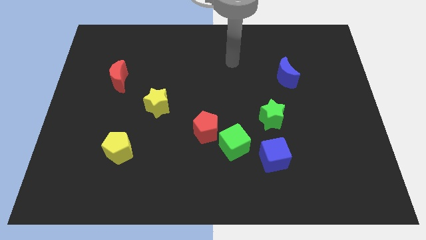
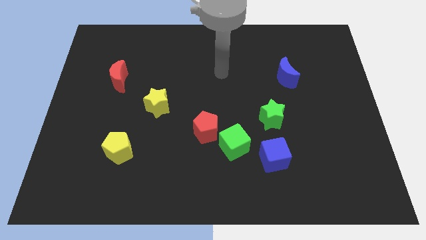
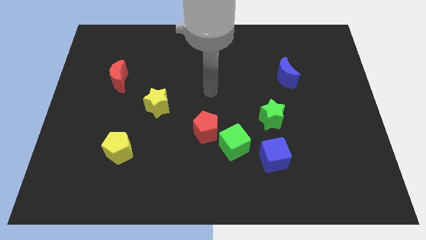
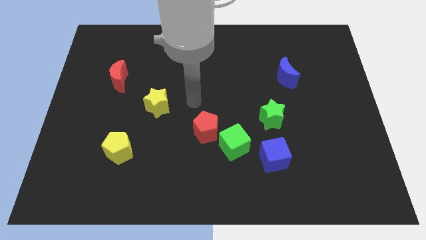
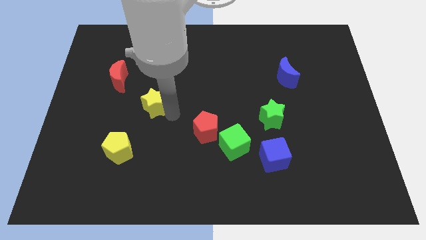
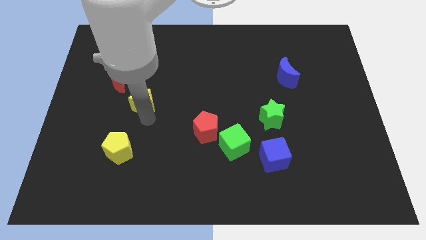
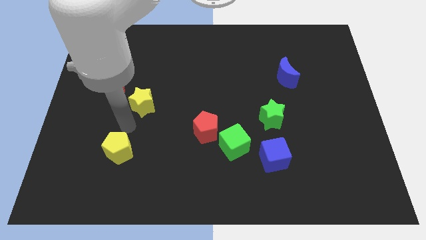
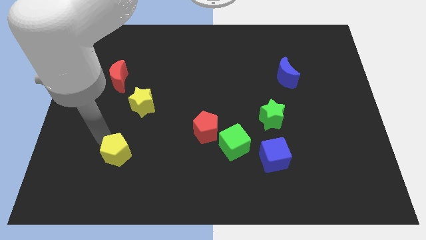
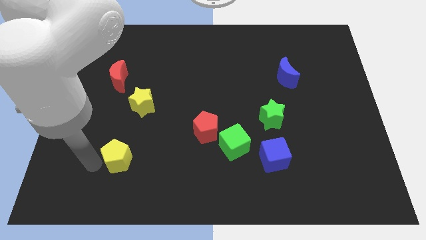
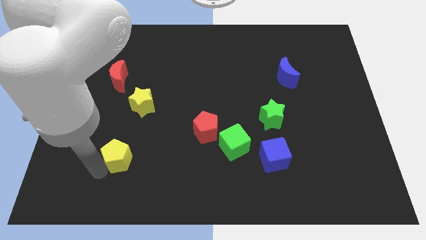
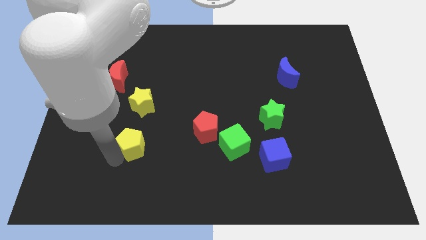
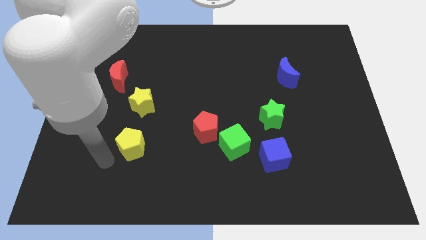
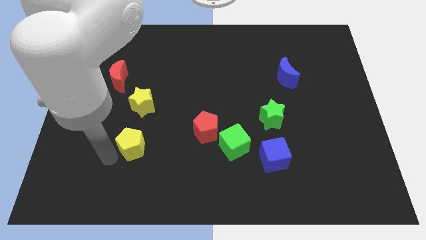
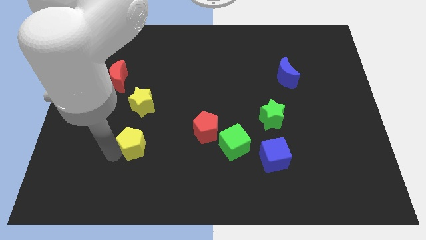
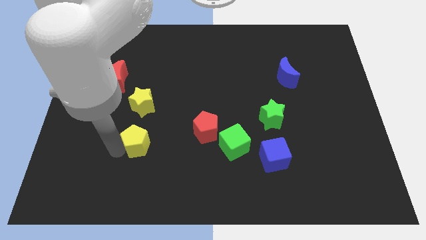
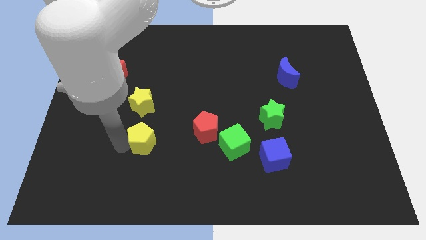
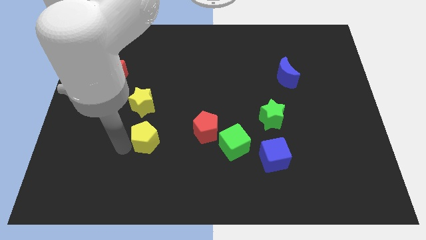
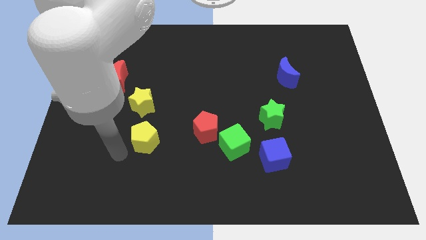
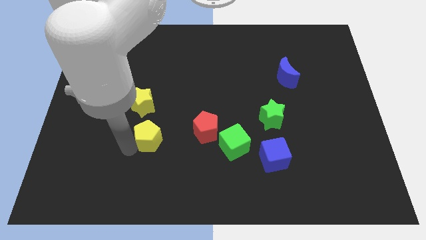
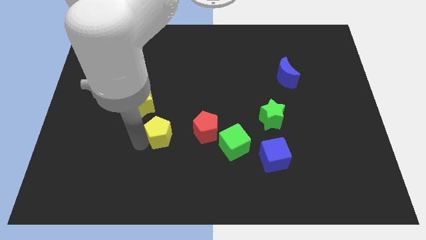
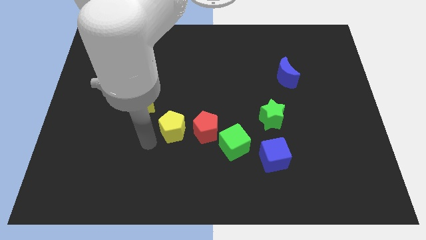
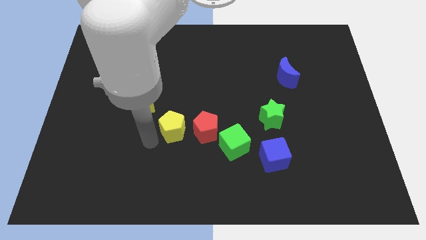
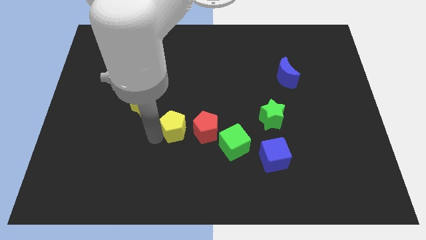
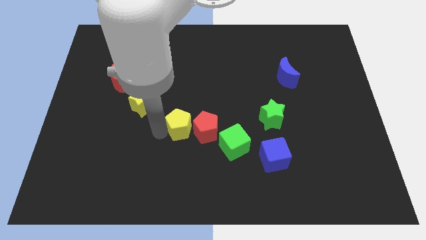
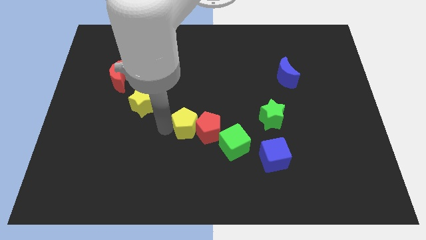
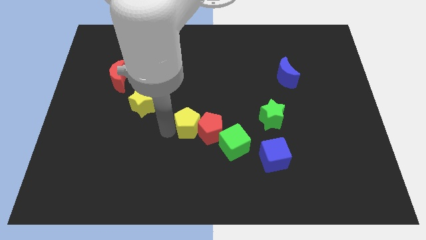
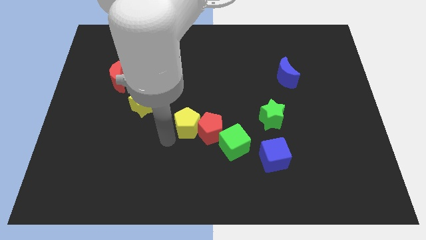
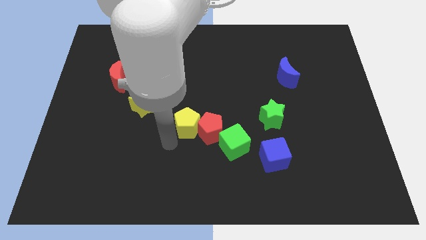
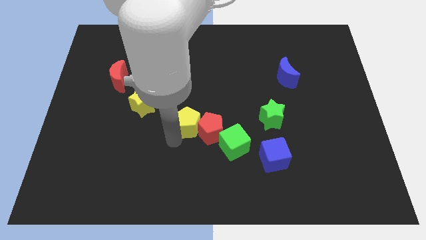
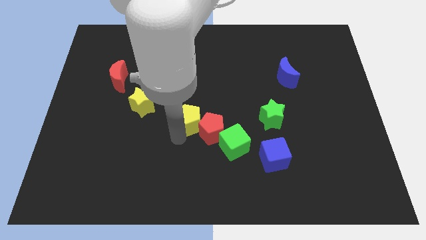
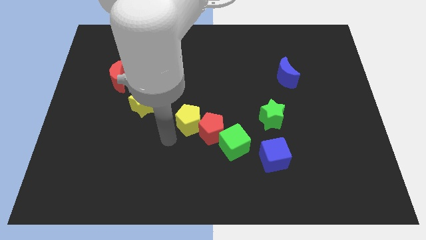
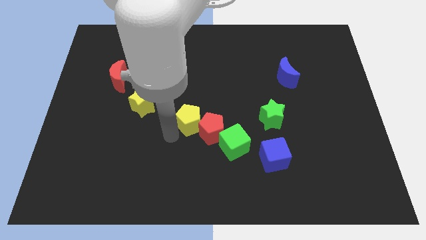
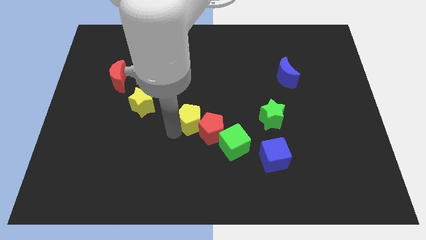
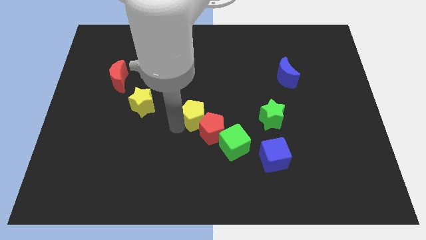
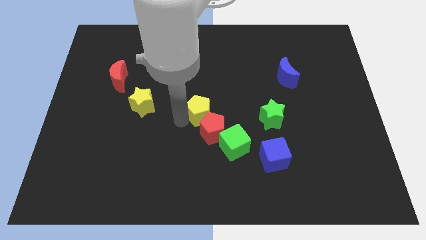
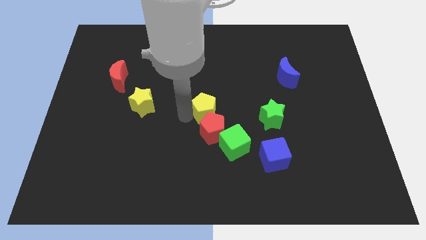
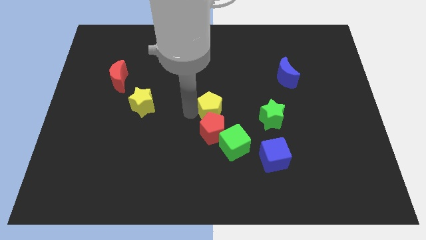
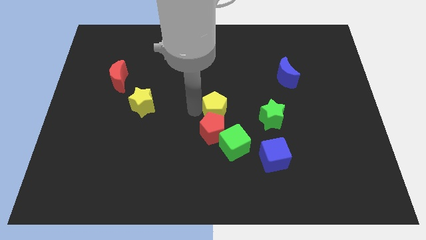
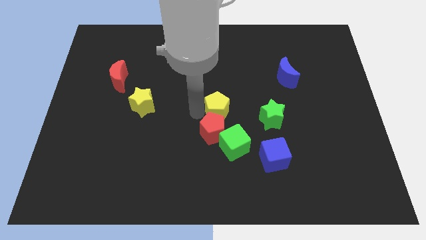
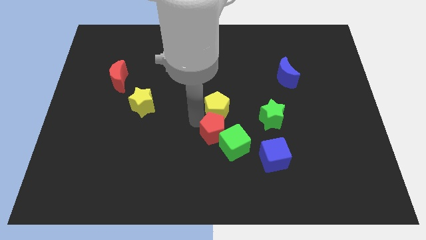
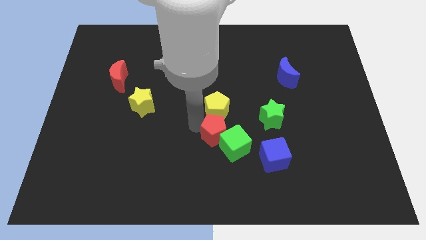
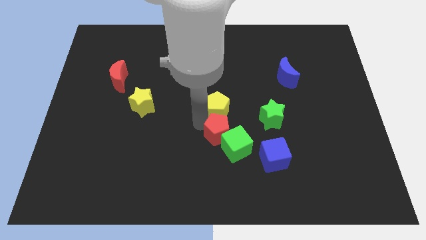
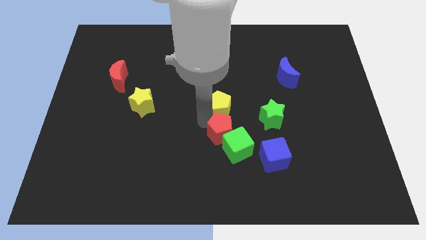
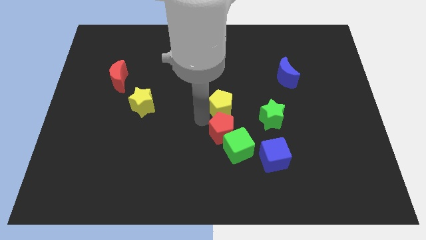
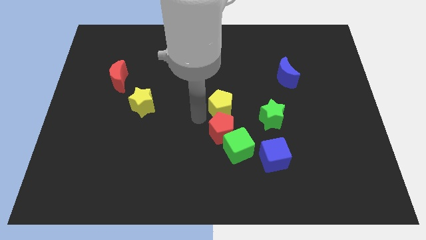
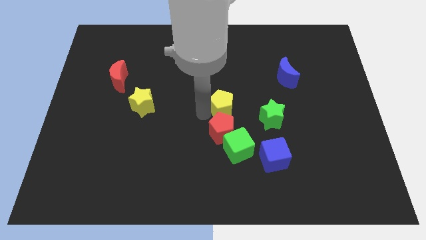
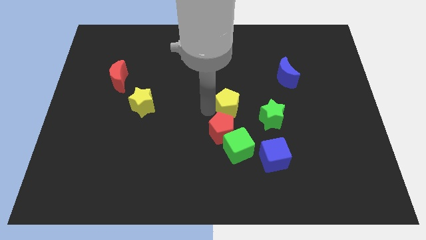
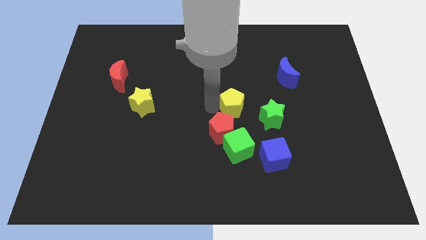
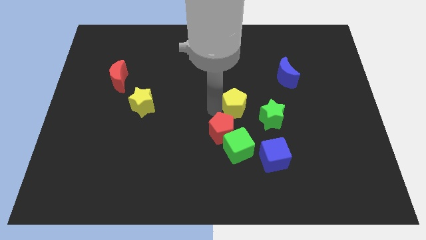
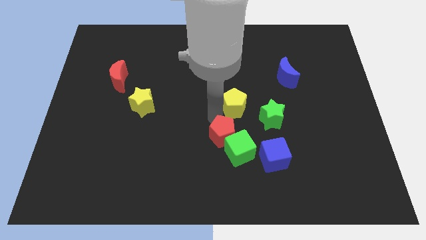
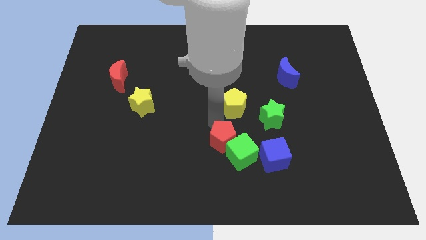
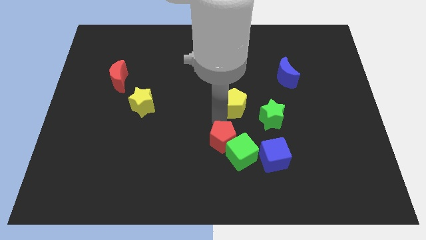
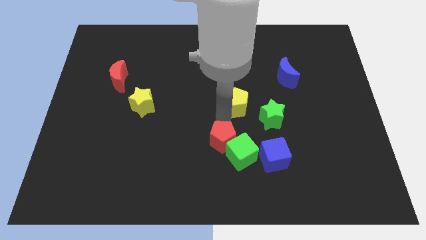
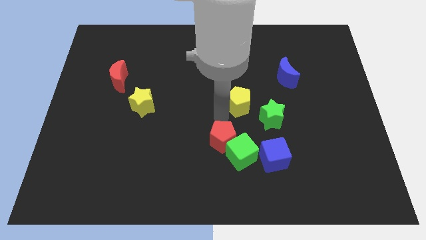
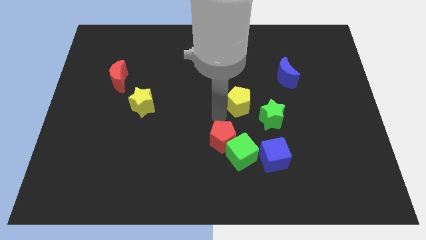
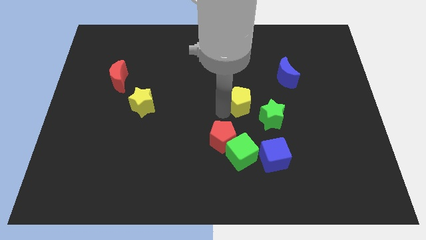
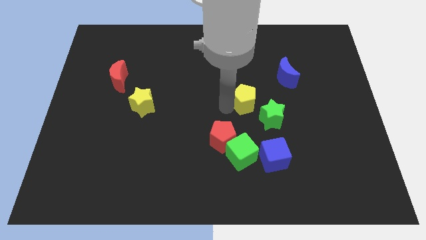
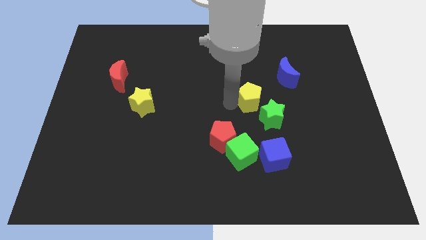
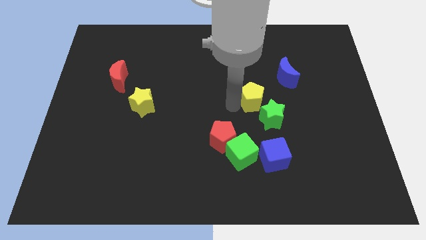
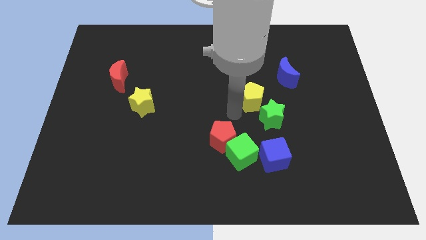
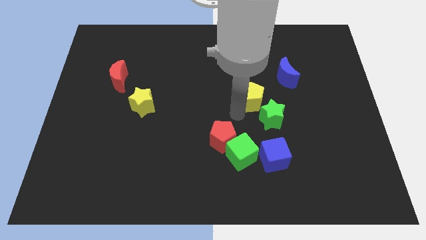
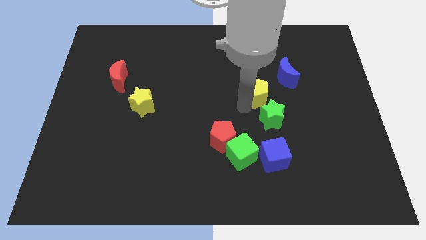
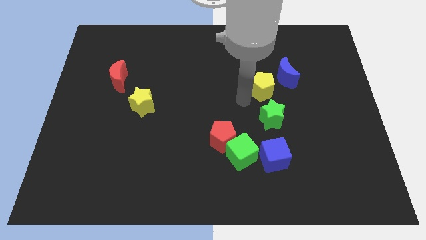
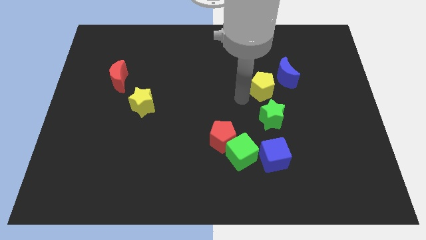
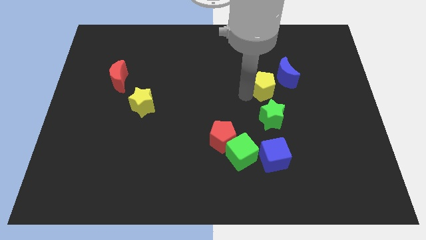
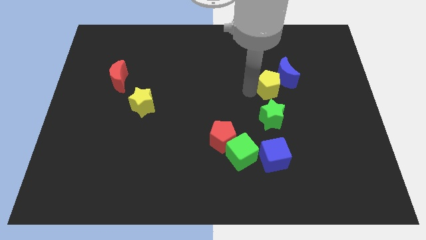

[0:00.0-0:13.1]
push the yellow pentagon towards the blue moon

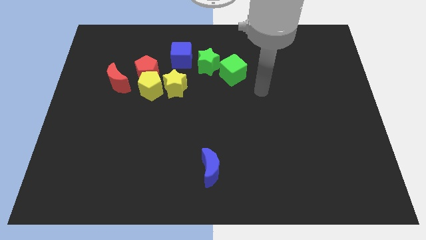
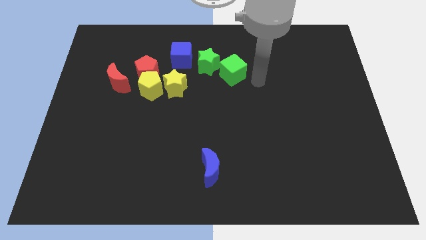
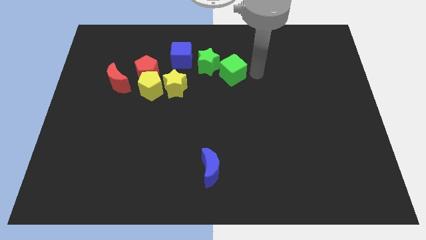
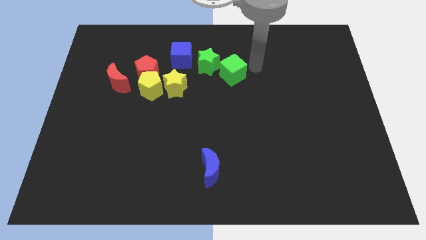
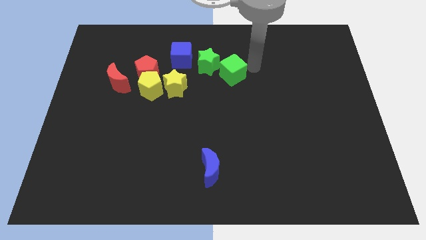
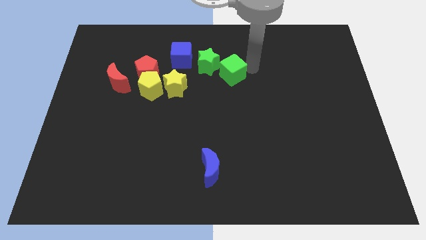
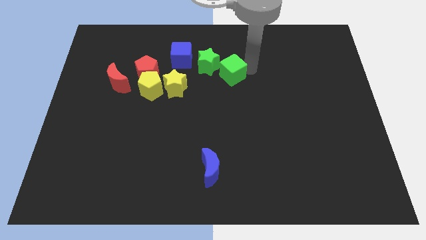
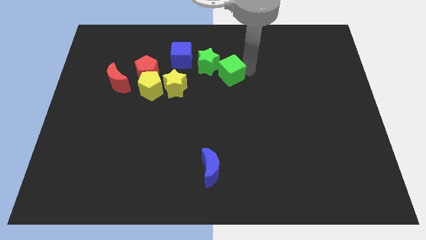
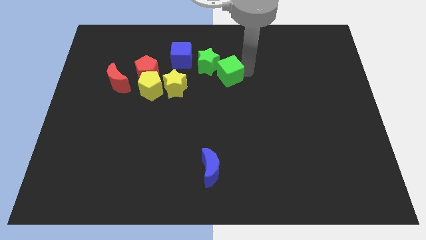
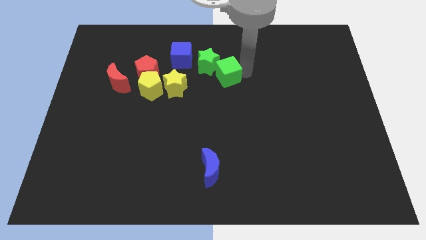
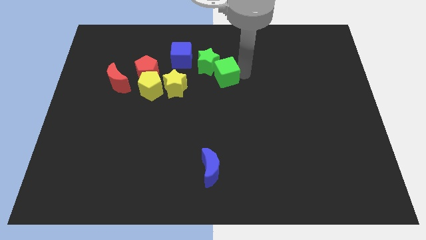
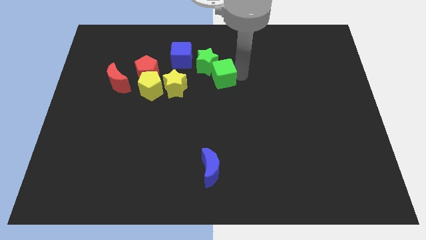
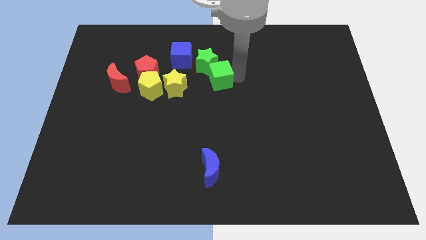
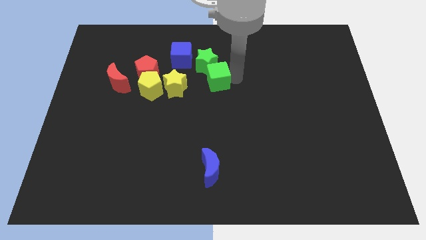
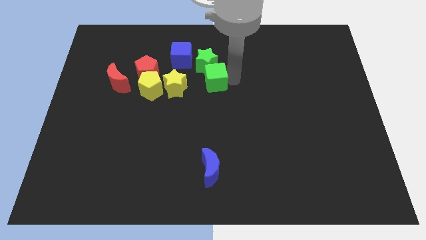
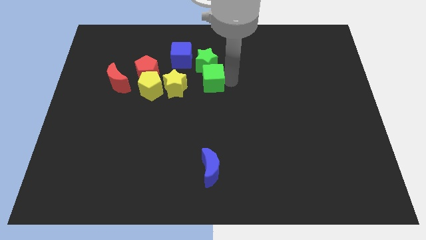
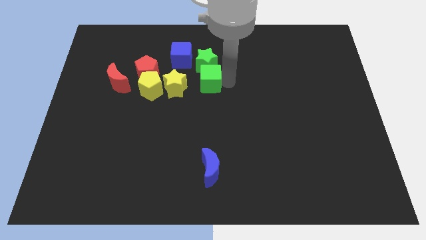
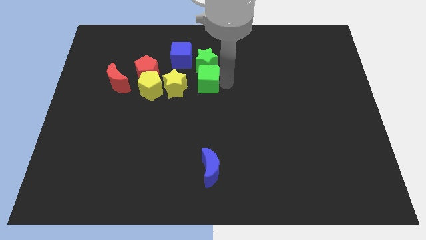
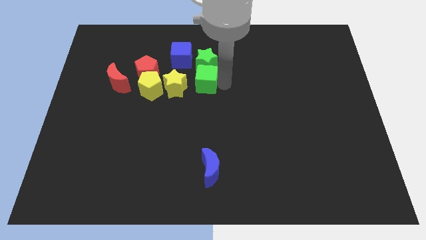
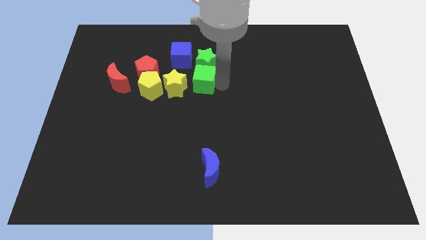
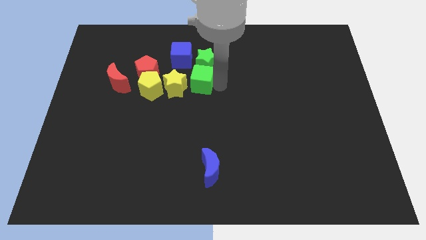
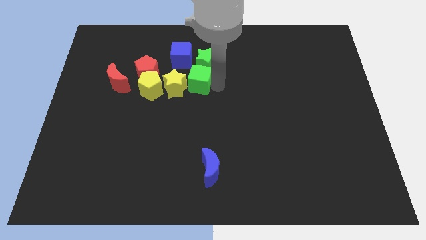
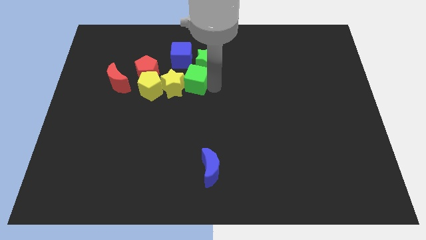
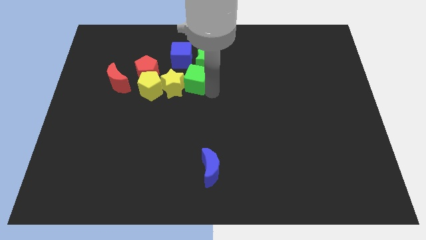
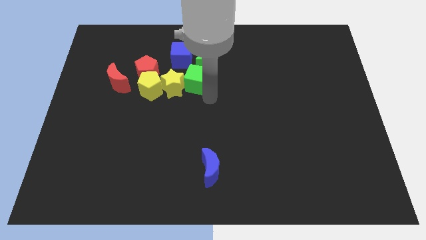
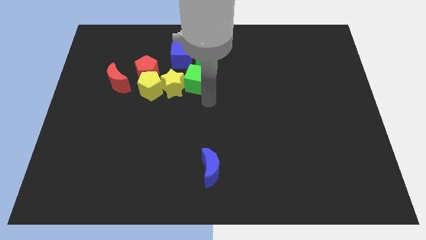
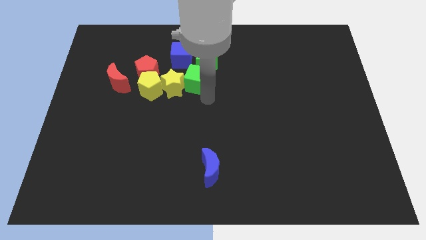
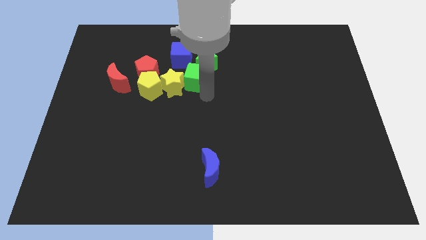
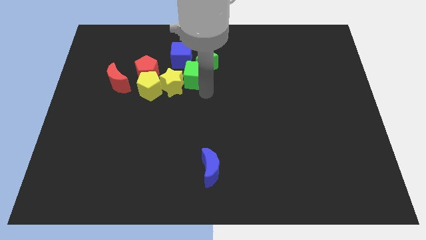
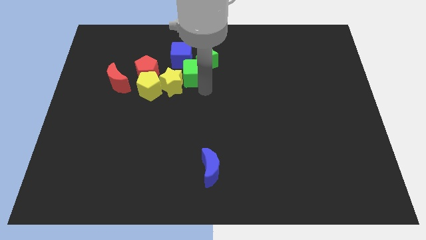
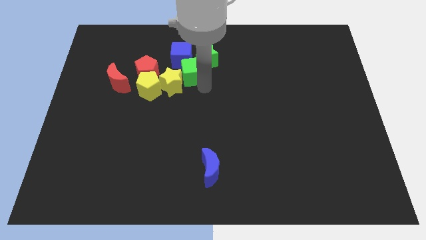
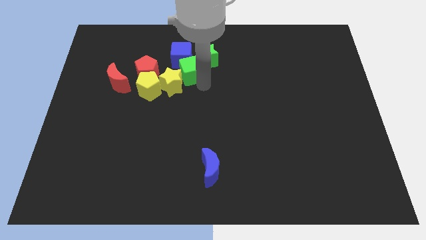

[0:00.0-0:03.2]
move the green cube to the blue cube
